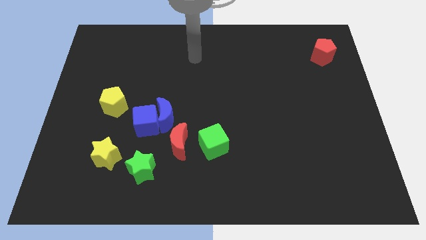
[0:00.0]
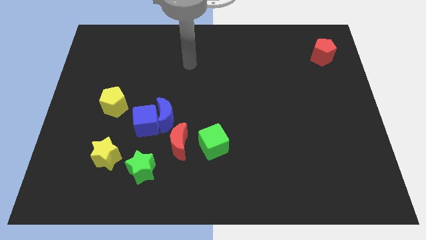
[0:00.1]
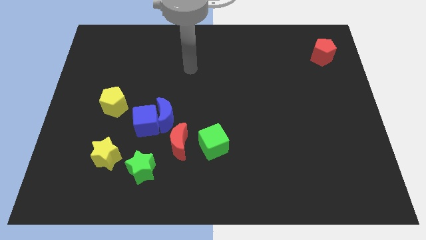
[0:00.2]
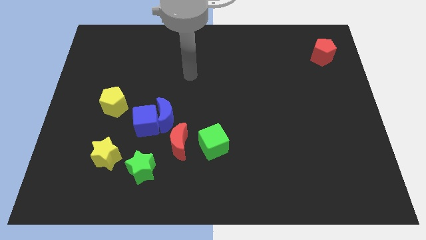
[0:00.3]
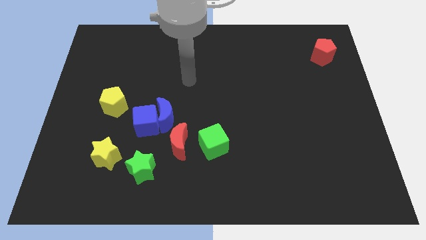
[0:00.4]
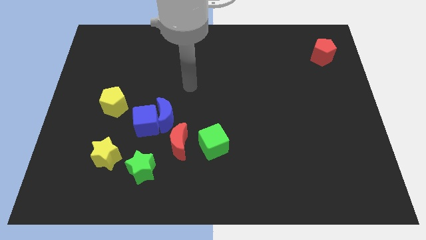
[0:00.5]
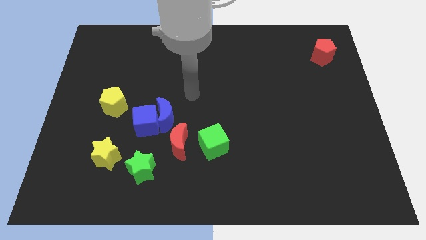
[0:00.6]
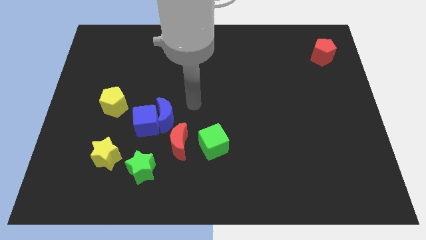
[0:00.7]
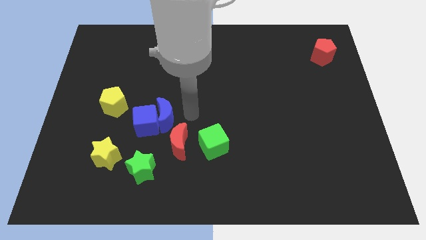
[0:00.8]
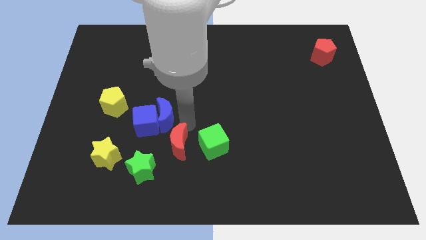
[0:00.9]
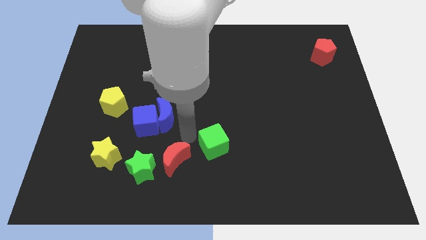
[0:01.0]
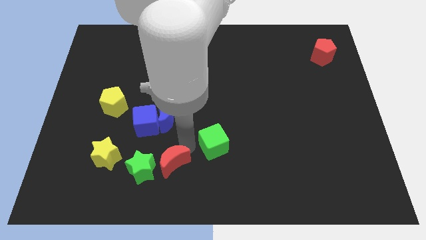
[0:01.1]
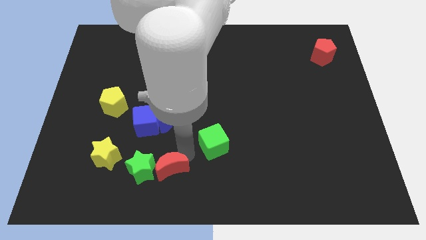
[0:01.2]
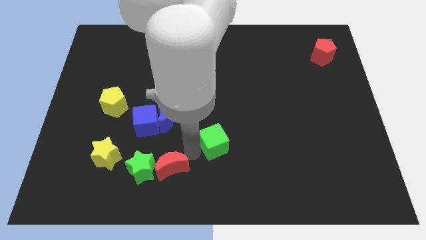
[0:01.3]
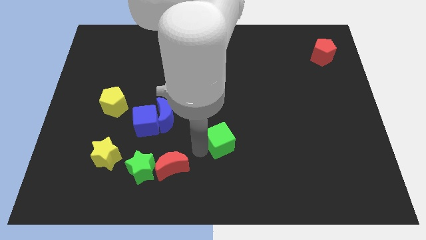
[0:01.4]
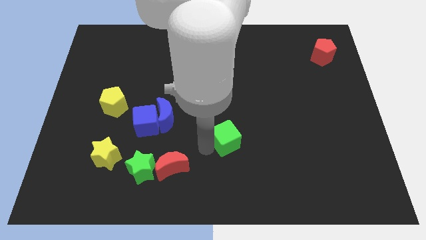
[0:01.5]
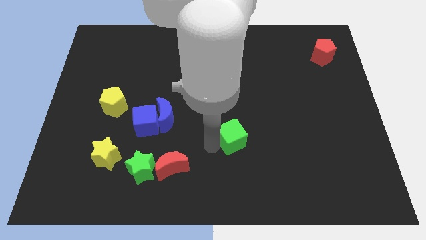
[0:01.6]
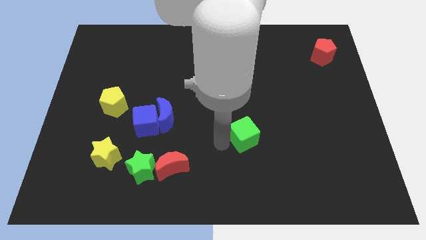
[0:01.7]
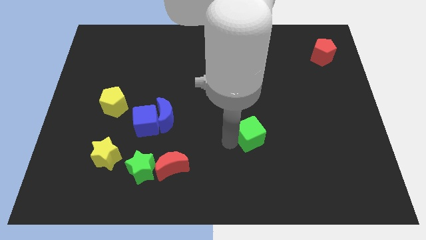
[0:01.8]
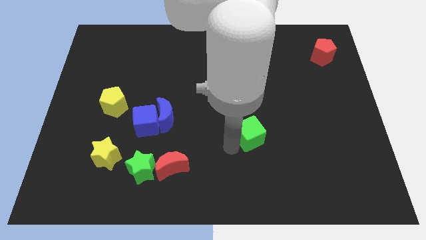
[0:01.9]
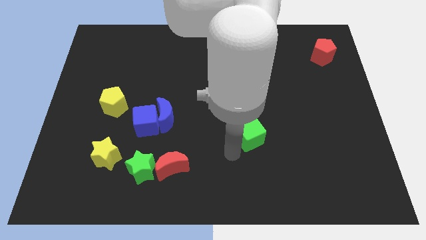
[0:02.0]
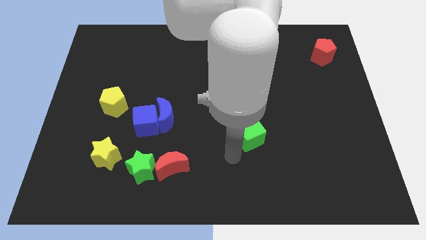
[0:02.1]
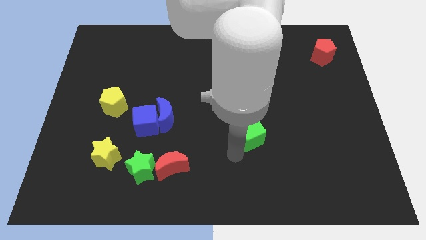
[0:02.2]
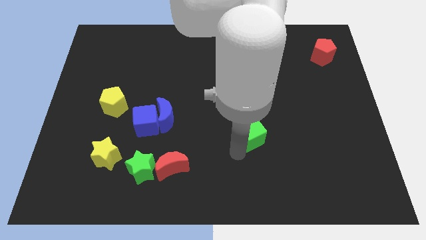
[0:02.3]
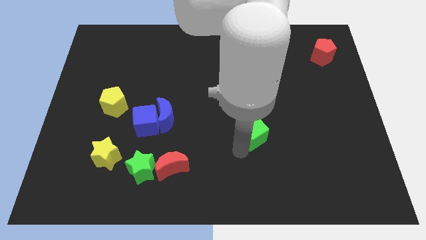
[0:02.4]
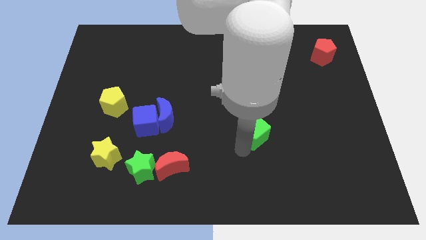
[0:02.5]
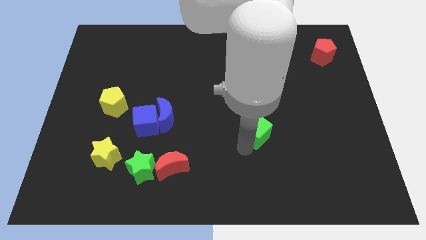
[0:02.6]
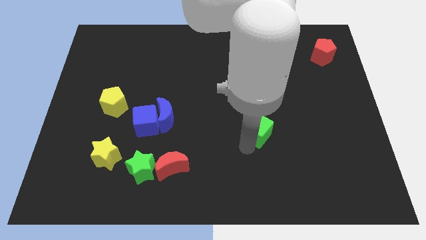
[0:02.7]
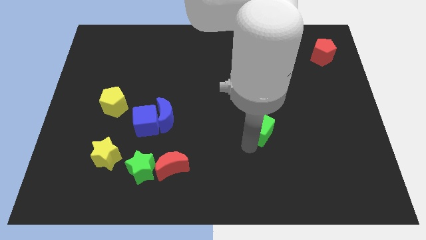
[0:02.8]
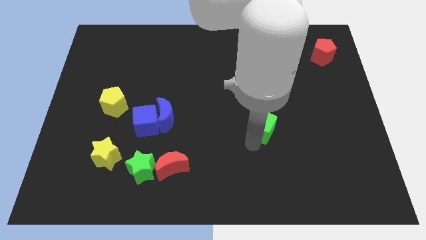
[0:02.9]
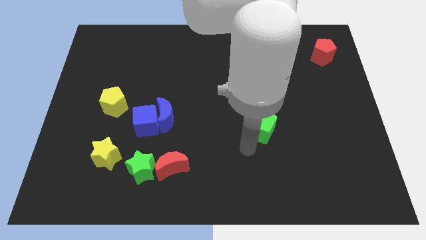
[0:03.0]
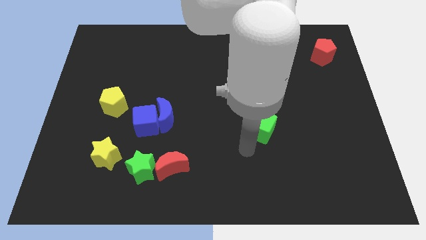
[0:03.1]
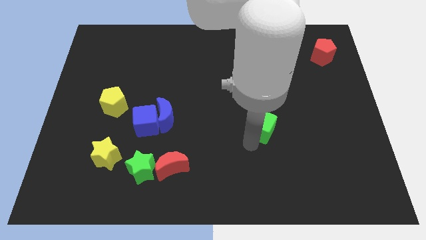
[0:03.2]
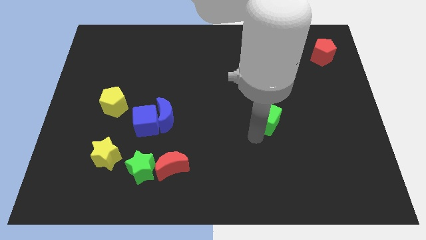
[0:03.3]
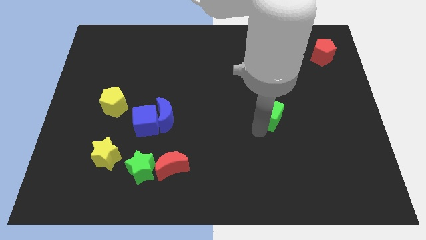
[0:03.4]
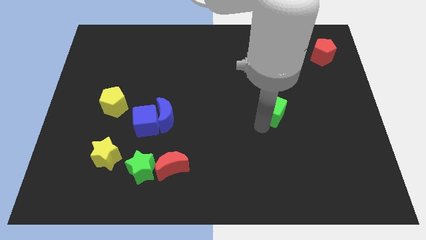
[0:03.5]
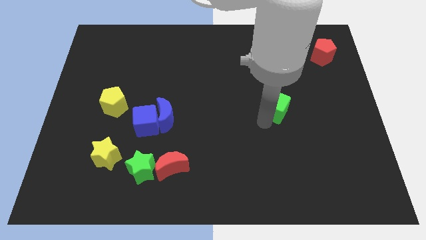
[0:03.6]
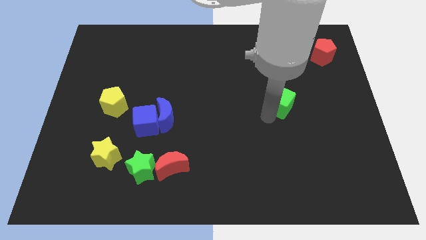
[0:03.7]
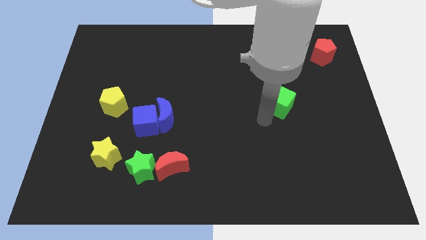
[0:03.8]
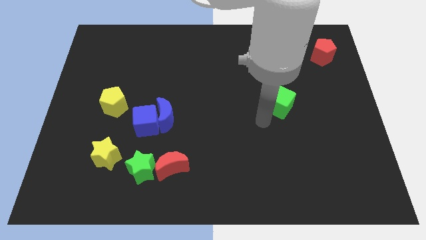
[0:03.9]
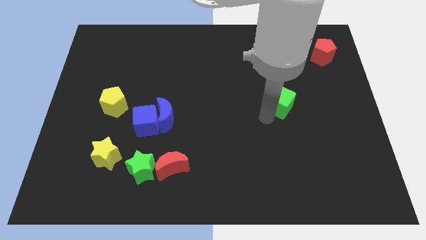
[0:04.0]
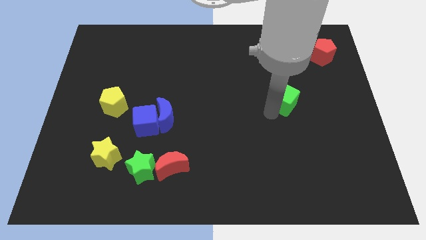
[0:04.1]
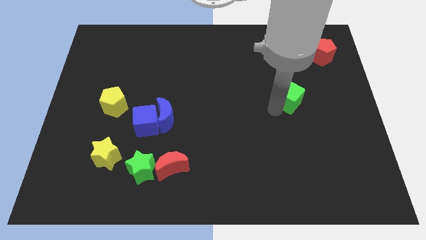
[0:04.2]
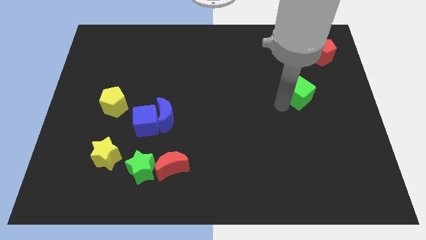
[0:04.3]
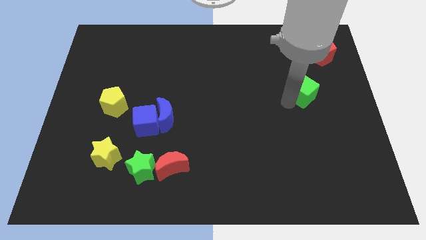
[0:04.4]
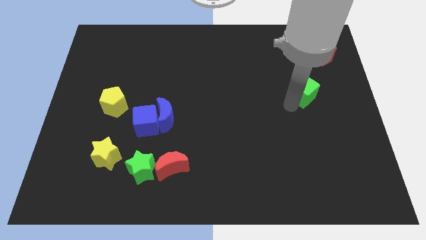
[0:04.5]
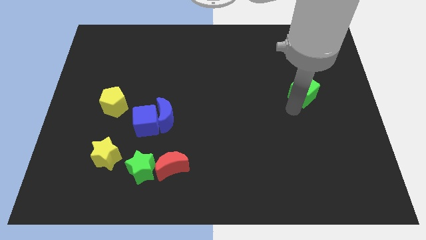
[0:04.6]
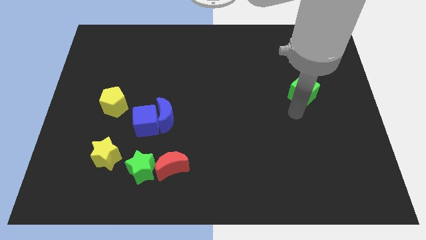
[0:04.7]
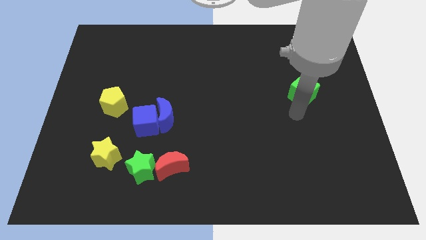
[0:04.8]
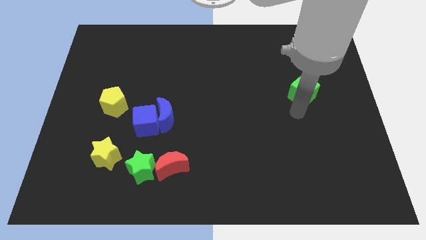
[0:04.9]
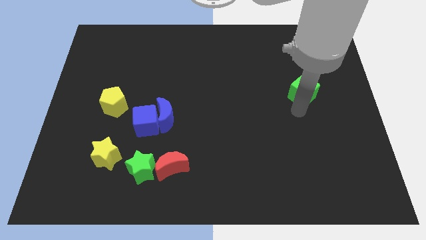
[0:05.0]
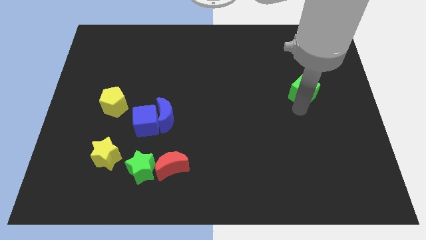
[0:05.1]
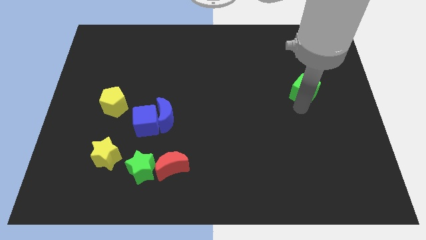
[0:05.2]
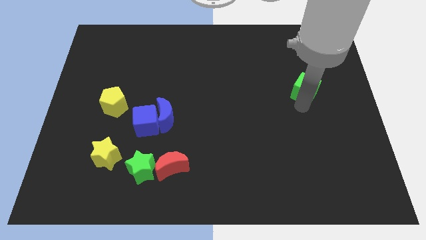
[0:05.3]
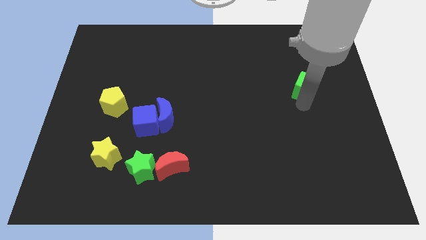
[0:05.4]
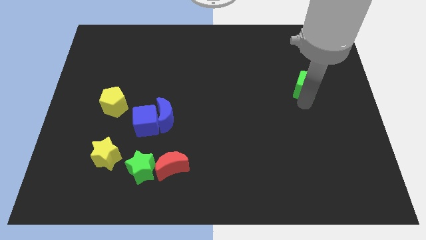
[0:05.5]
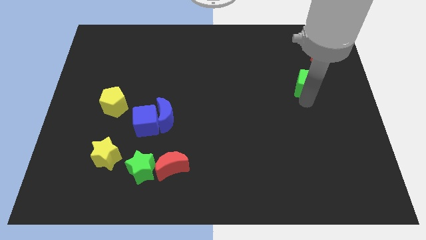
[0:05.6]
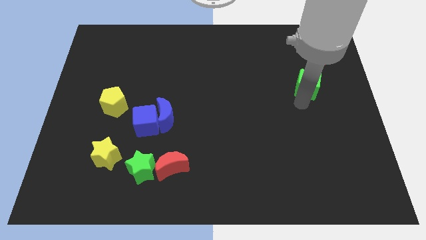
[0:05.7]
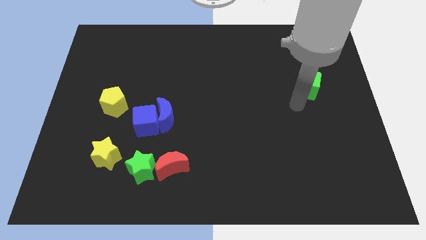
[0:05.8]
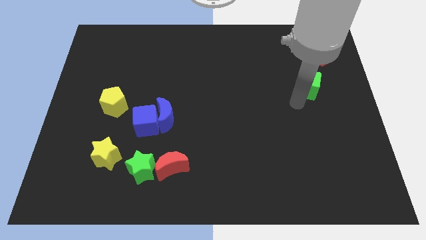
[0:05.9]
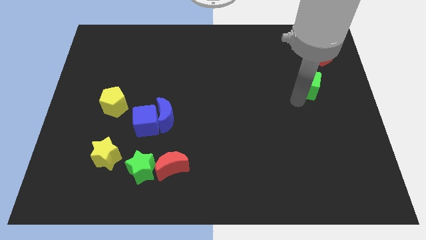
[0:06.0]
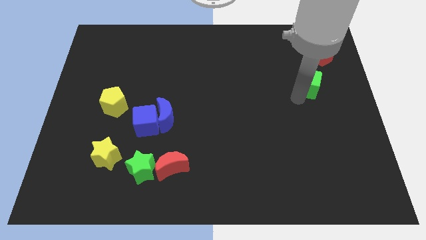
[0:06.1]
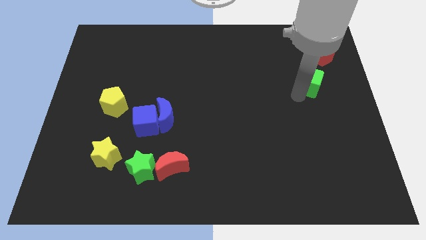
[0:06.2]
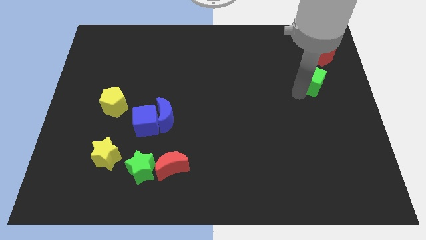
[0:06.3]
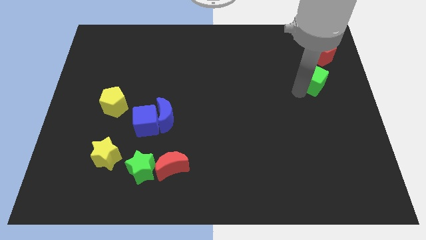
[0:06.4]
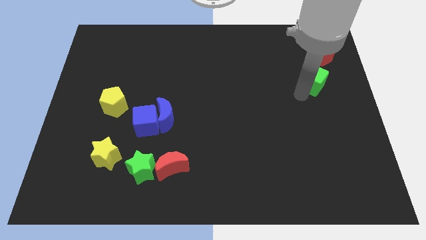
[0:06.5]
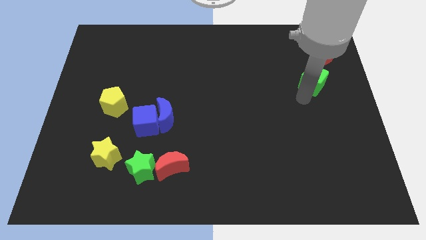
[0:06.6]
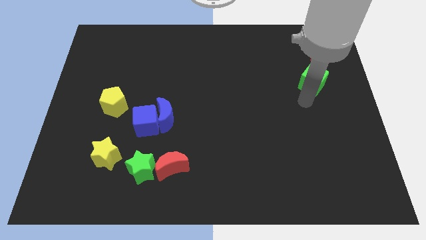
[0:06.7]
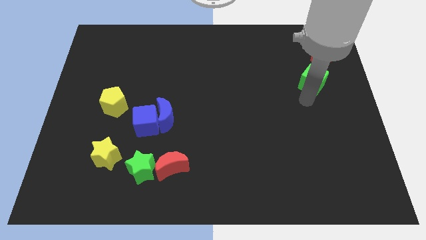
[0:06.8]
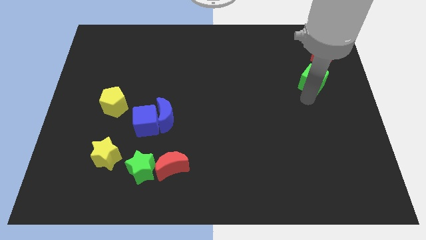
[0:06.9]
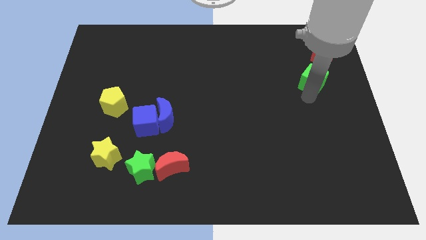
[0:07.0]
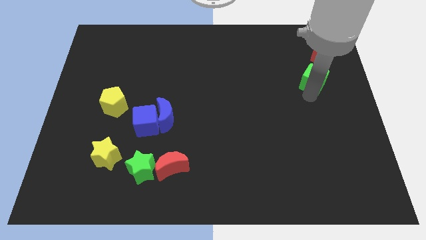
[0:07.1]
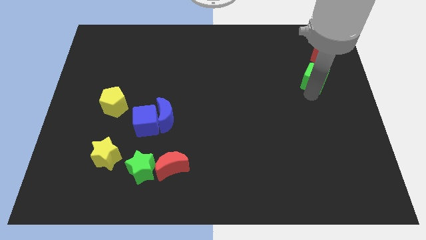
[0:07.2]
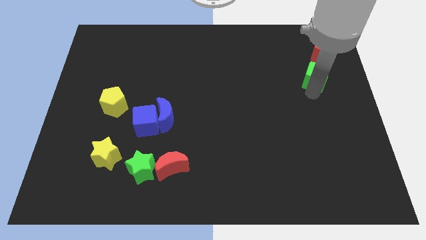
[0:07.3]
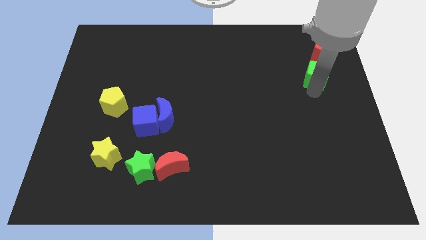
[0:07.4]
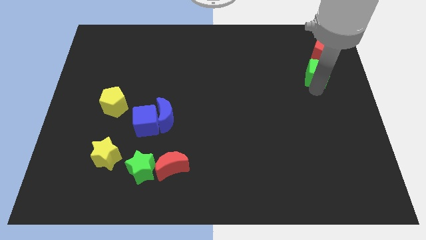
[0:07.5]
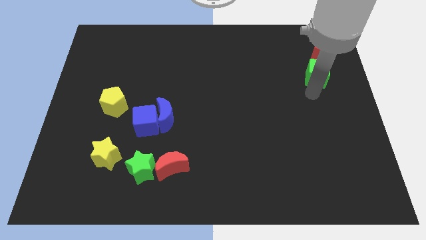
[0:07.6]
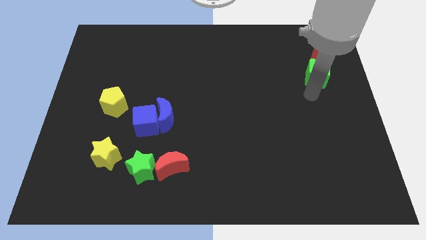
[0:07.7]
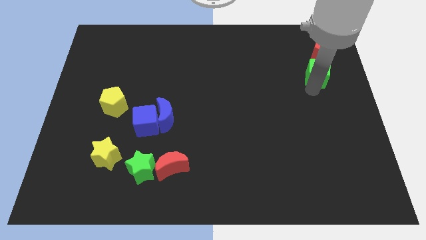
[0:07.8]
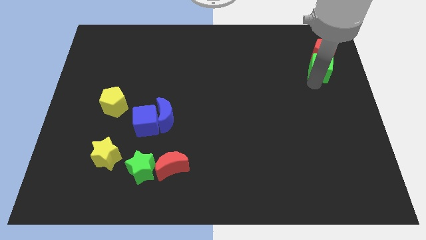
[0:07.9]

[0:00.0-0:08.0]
move the green cube to the red pentagon
